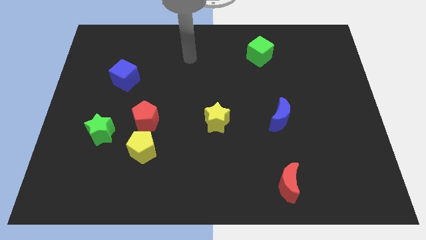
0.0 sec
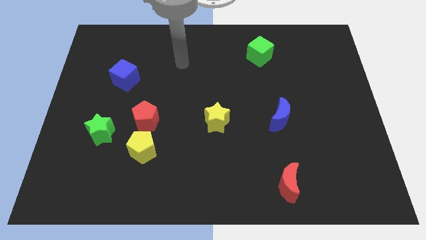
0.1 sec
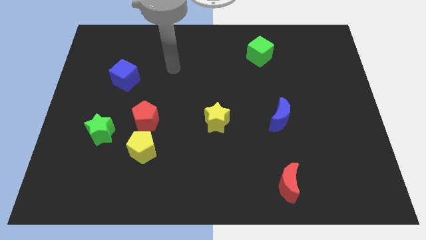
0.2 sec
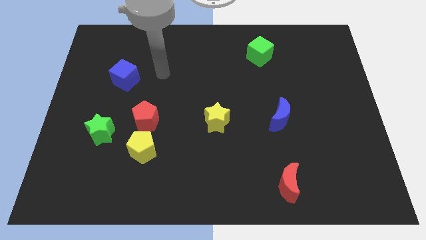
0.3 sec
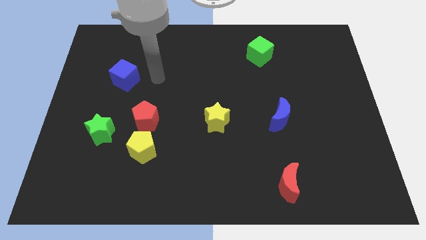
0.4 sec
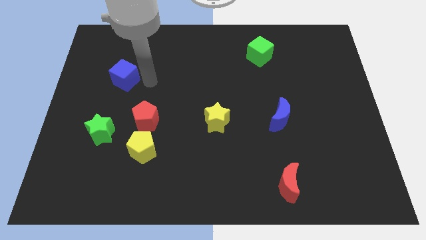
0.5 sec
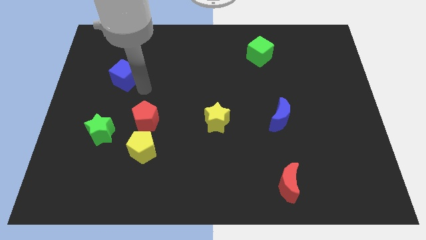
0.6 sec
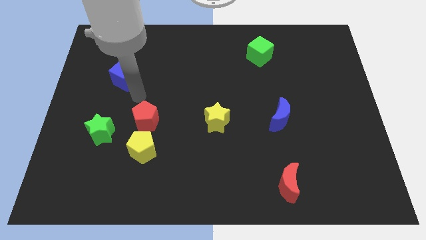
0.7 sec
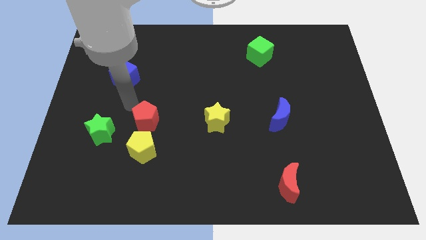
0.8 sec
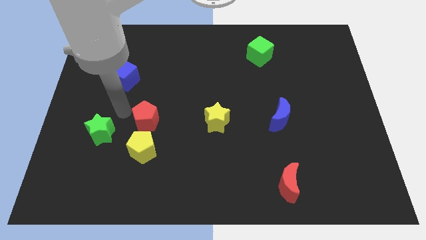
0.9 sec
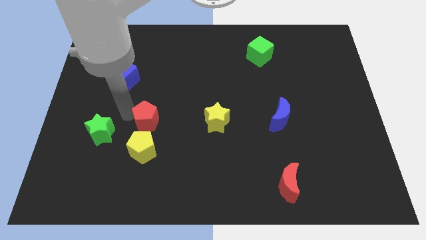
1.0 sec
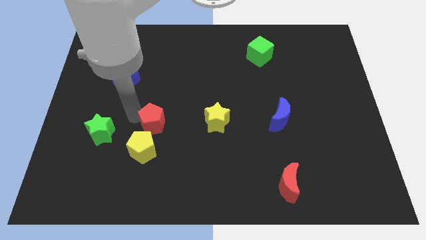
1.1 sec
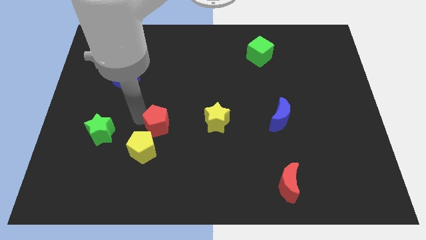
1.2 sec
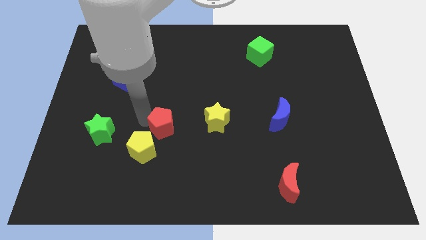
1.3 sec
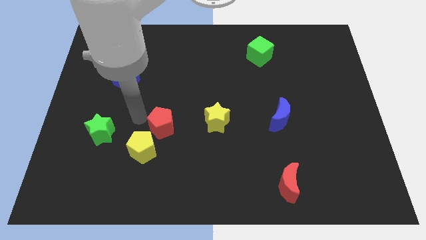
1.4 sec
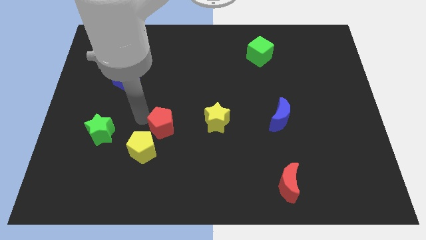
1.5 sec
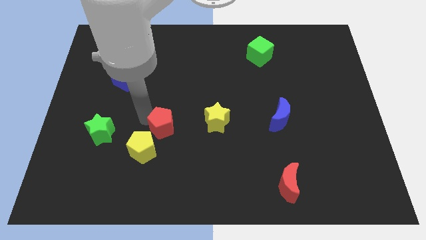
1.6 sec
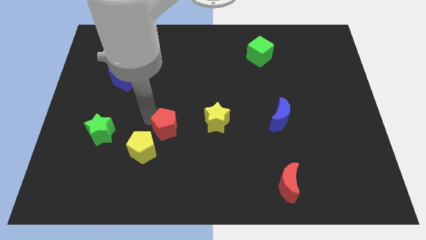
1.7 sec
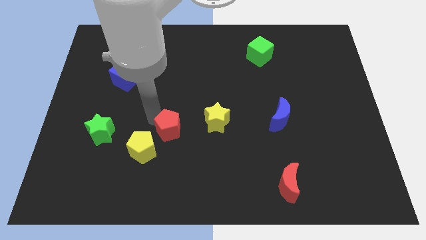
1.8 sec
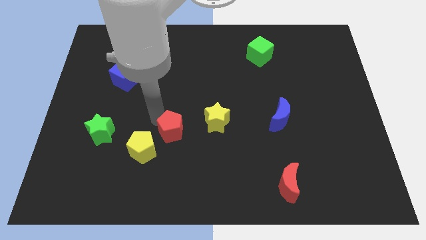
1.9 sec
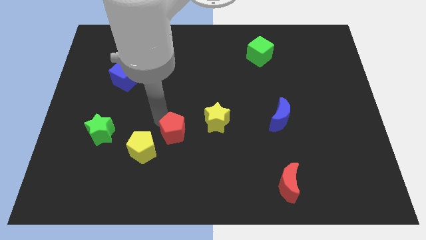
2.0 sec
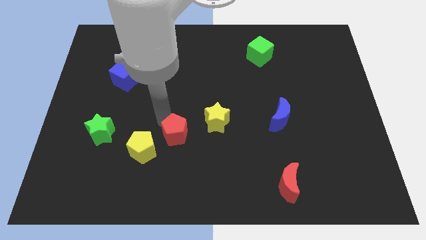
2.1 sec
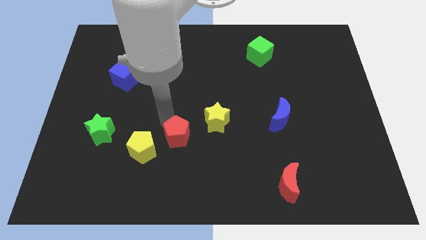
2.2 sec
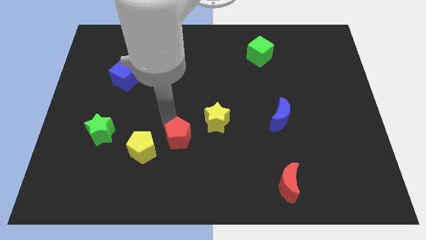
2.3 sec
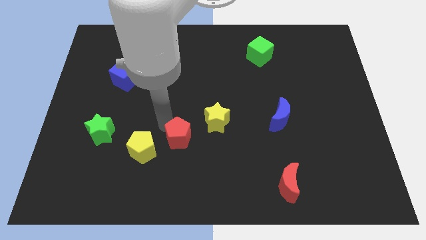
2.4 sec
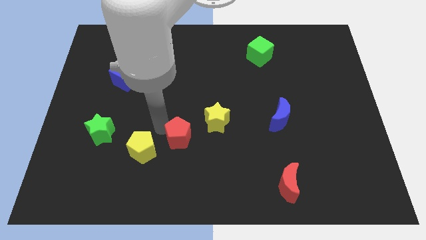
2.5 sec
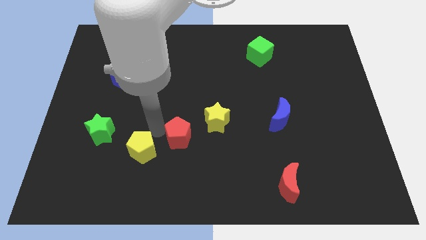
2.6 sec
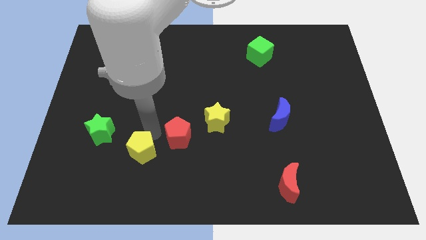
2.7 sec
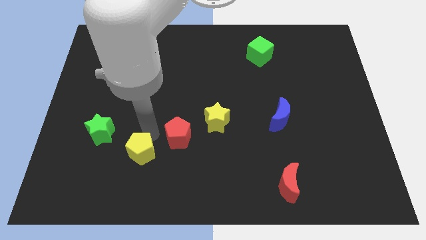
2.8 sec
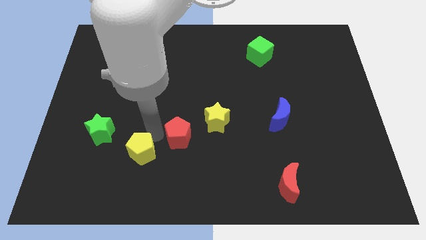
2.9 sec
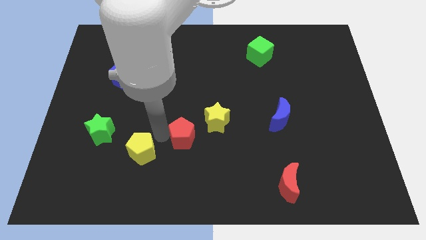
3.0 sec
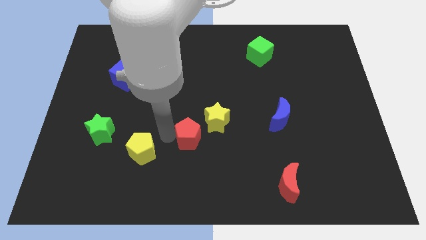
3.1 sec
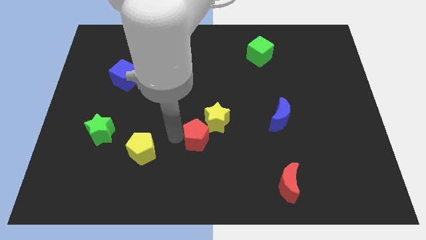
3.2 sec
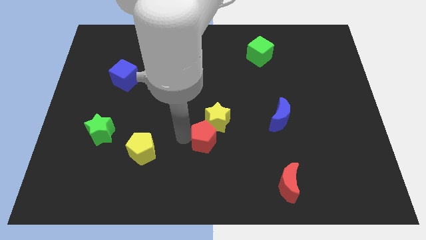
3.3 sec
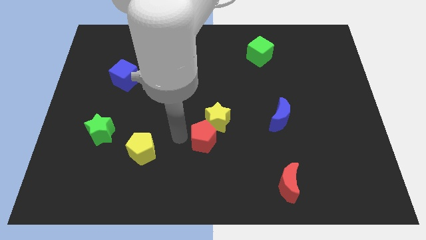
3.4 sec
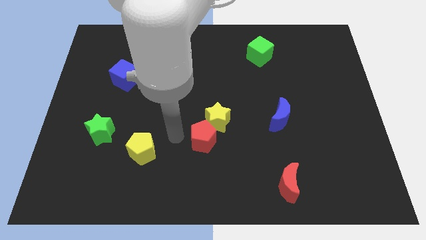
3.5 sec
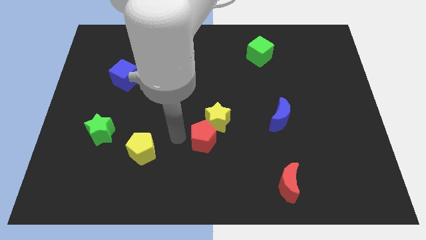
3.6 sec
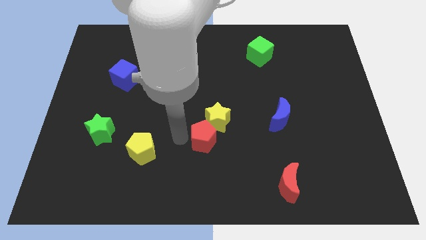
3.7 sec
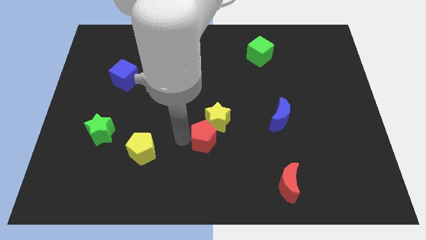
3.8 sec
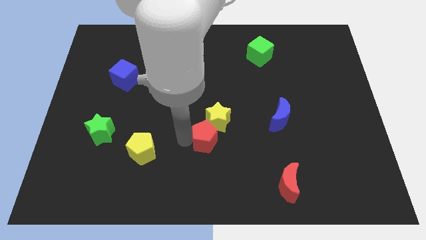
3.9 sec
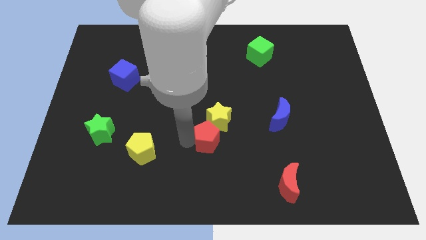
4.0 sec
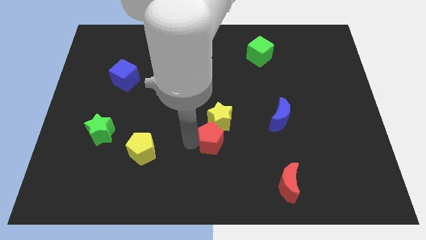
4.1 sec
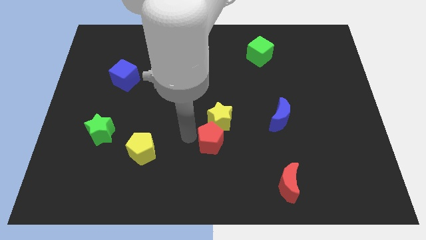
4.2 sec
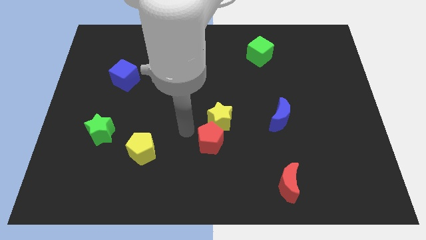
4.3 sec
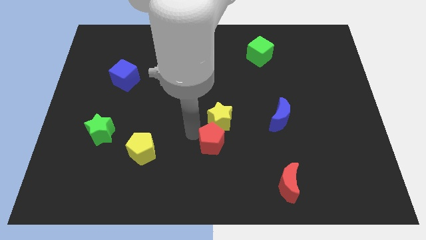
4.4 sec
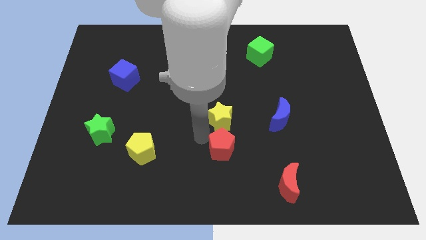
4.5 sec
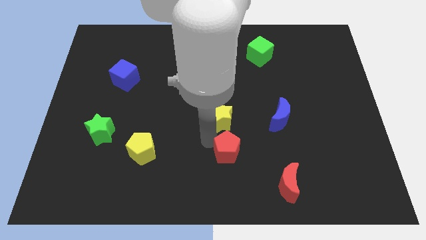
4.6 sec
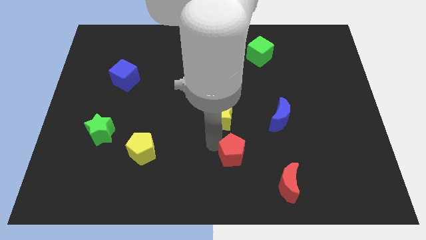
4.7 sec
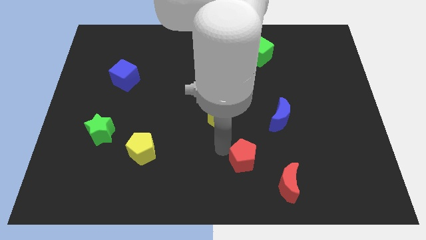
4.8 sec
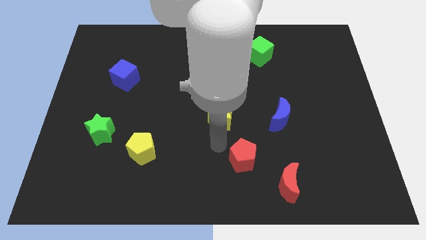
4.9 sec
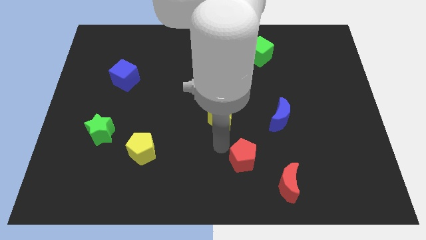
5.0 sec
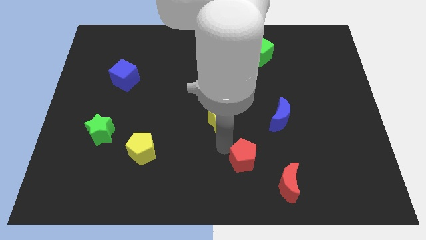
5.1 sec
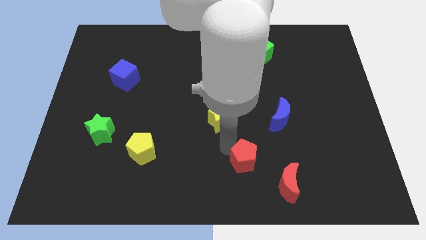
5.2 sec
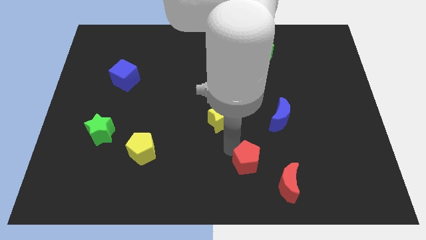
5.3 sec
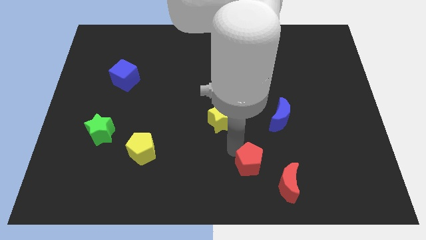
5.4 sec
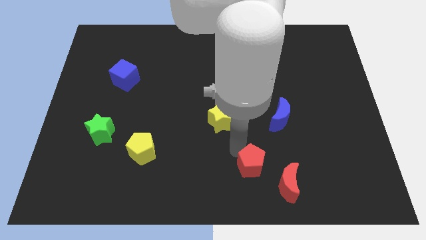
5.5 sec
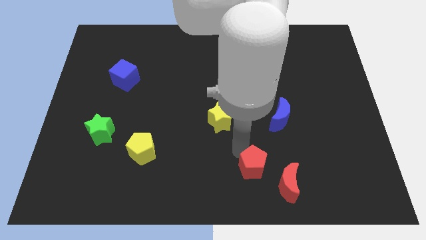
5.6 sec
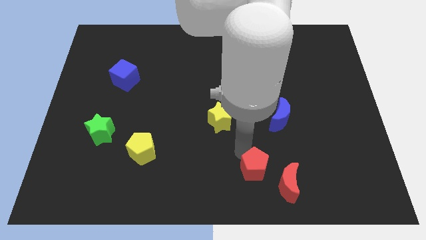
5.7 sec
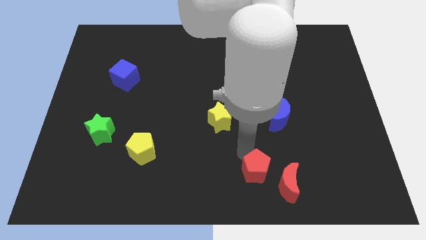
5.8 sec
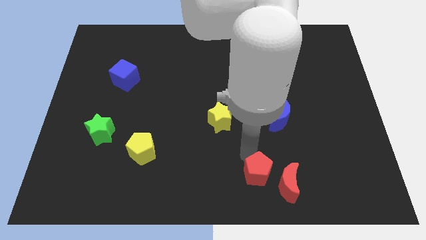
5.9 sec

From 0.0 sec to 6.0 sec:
slide the red pentagon next to the red moon

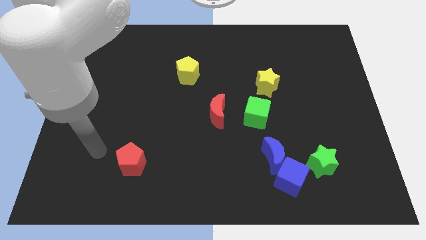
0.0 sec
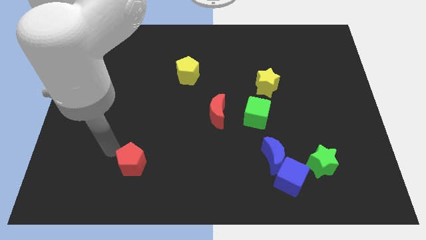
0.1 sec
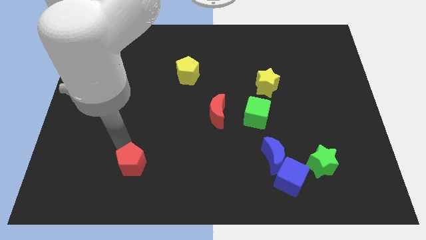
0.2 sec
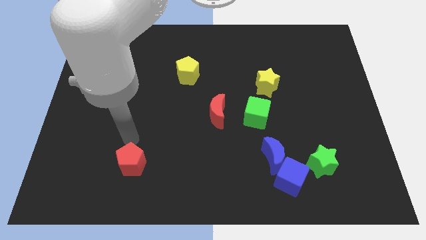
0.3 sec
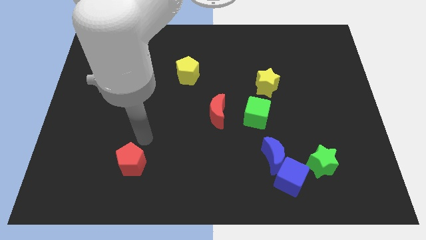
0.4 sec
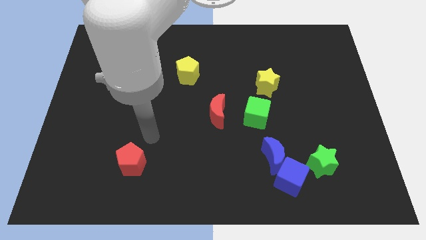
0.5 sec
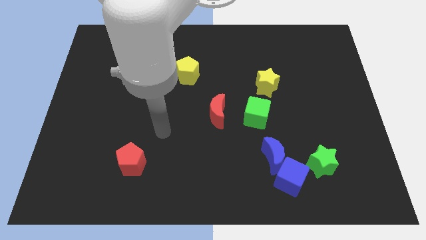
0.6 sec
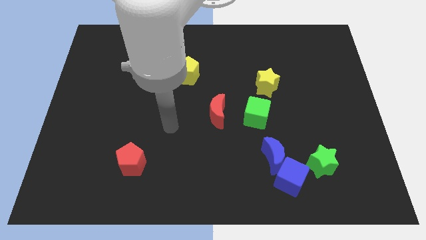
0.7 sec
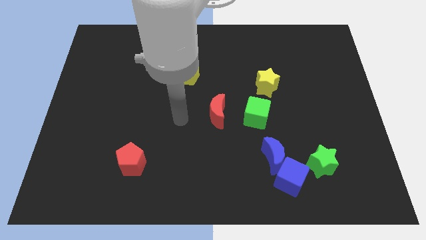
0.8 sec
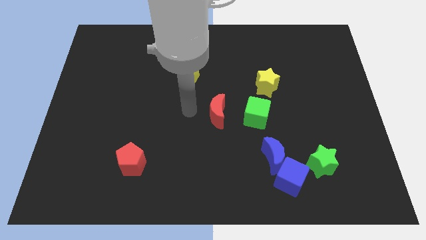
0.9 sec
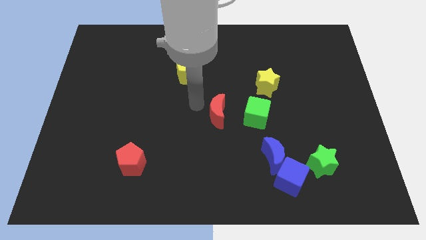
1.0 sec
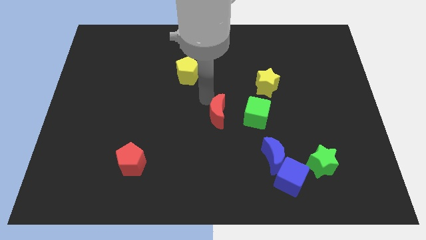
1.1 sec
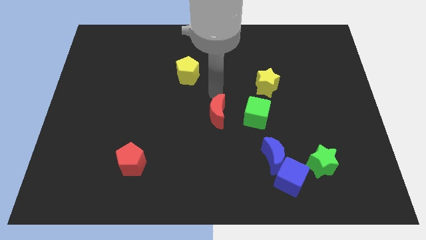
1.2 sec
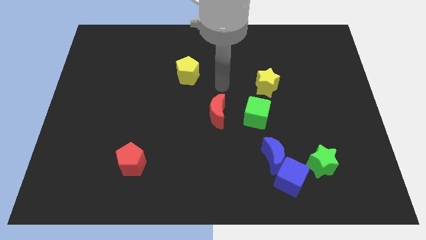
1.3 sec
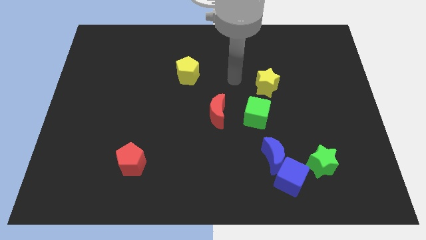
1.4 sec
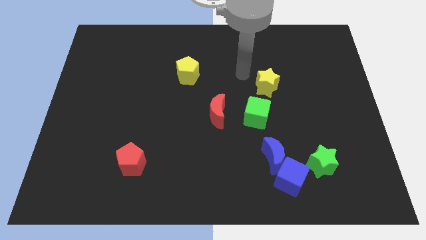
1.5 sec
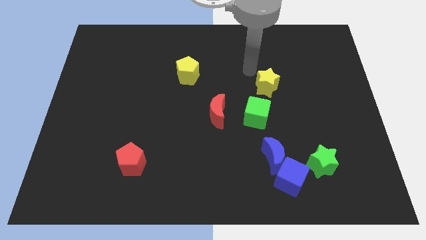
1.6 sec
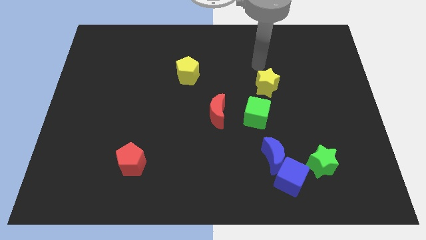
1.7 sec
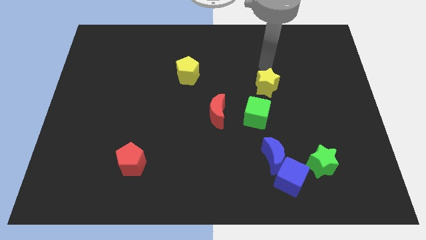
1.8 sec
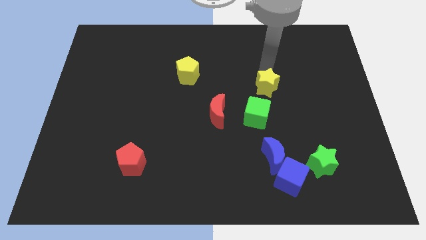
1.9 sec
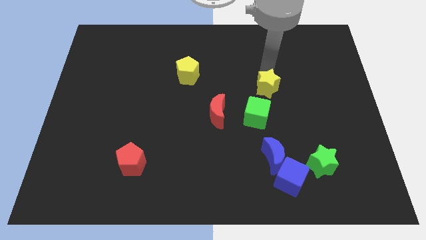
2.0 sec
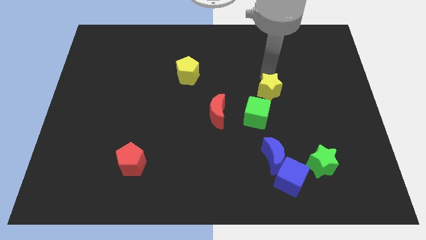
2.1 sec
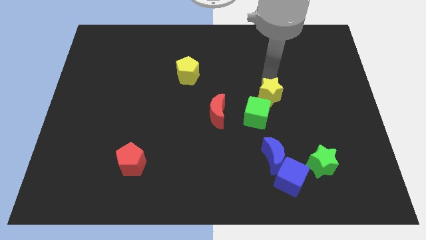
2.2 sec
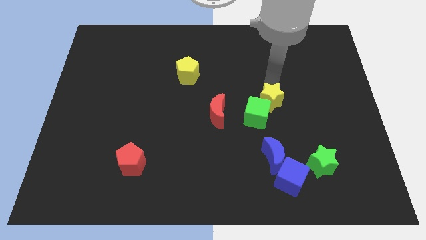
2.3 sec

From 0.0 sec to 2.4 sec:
slide the yellow star towards the green cube
